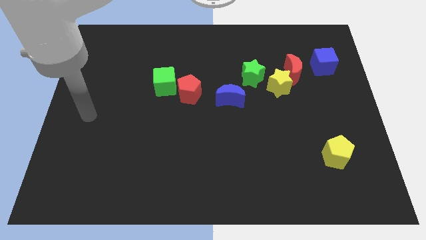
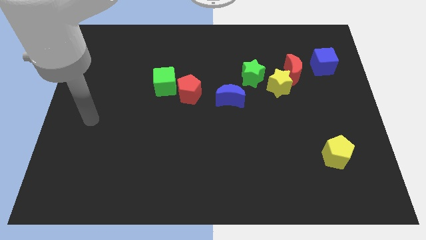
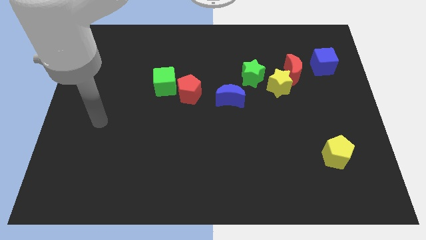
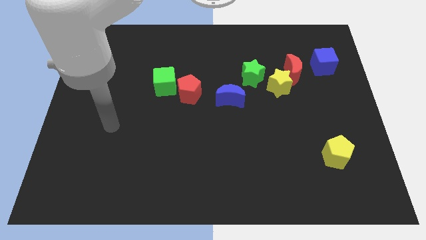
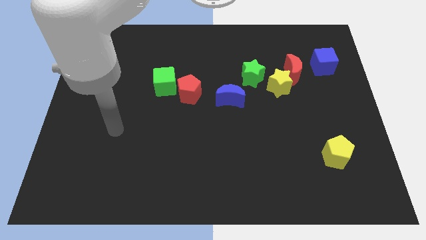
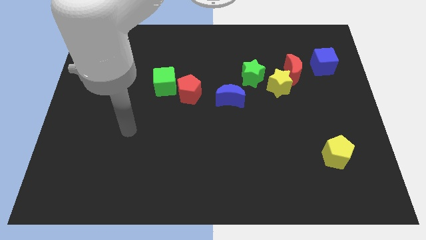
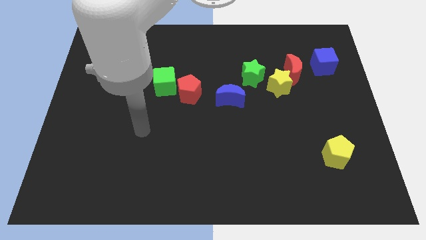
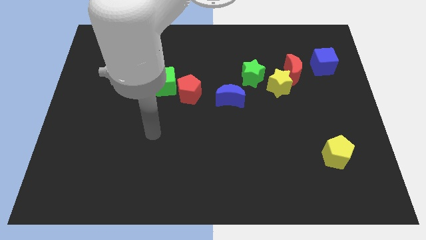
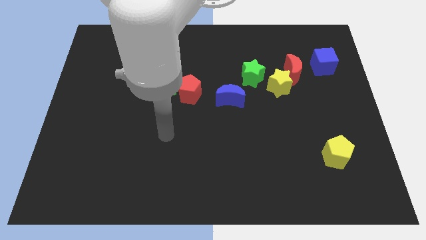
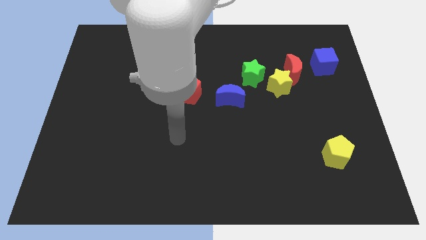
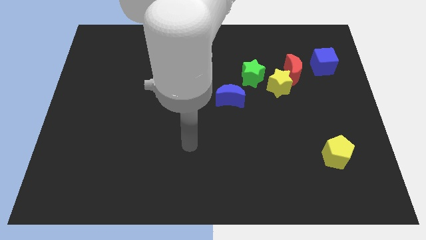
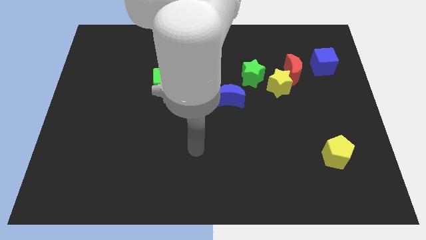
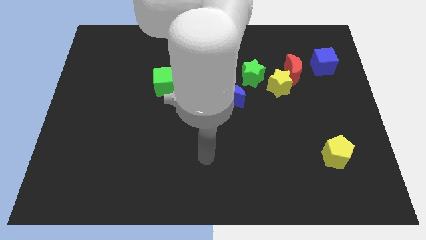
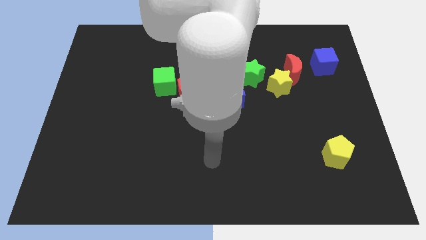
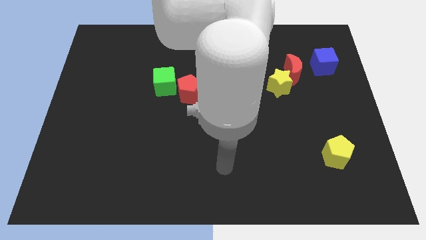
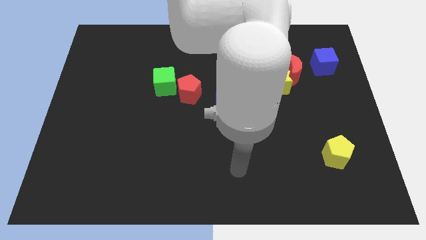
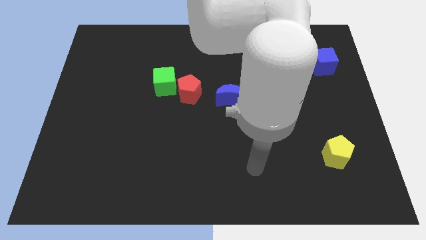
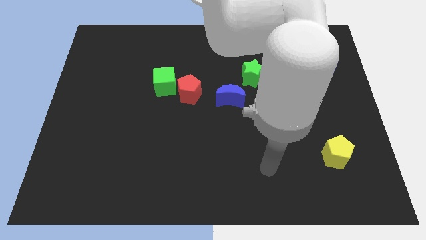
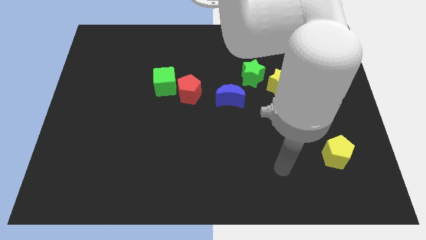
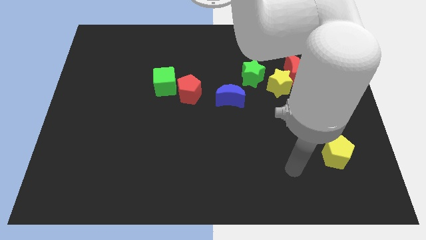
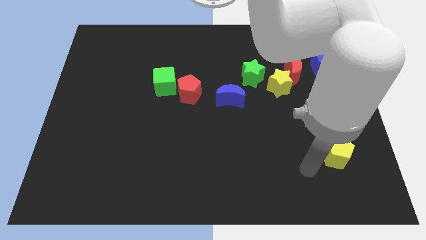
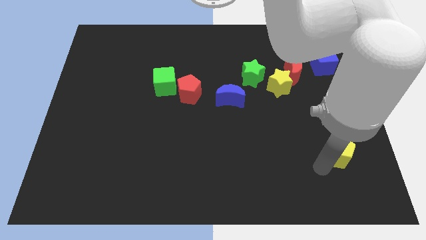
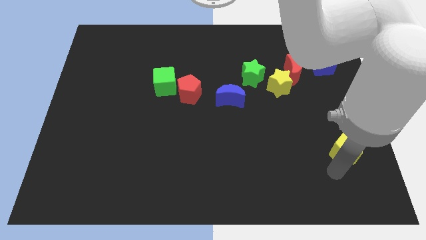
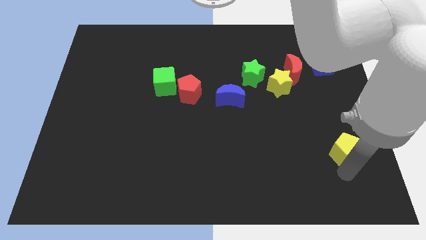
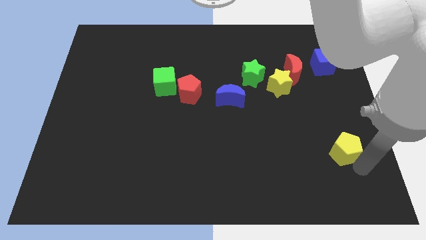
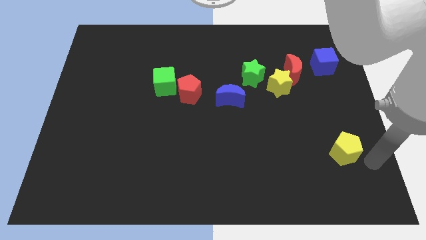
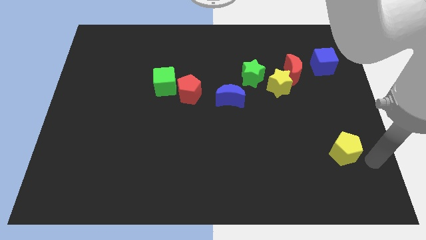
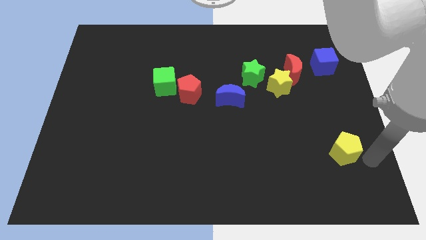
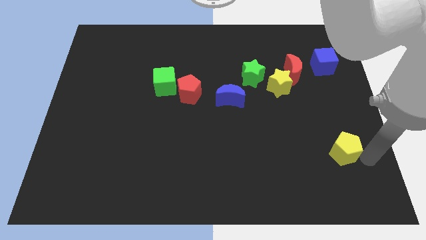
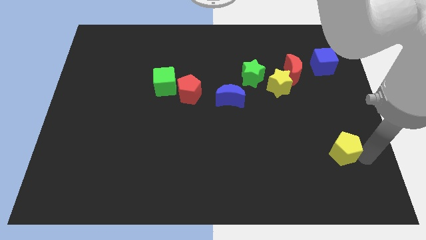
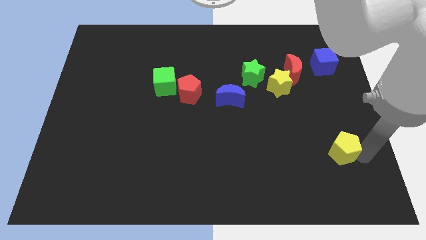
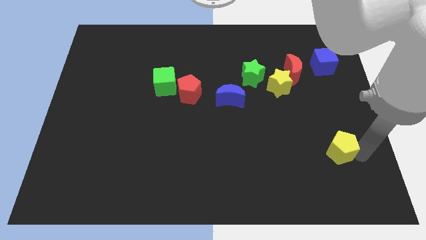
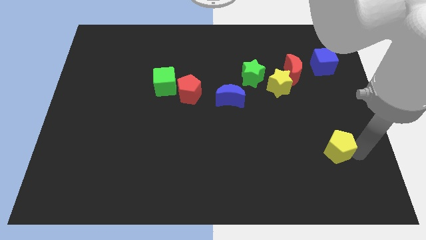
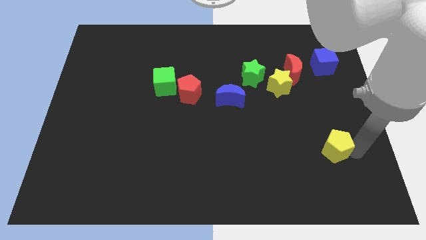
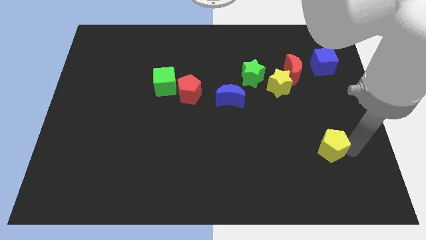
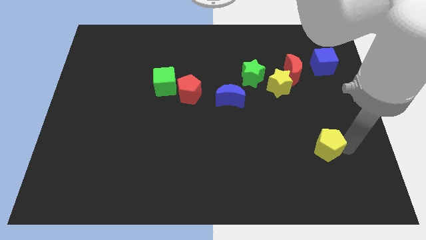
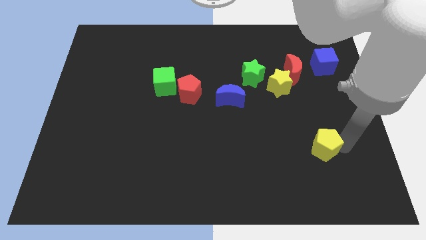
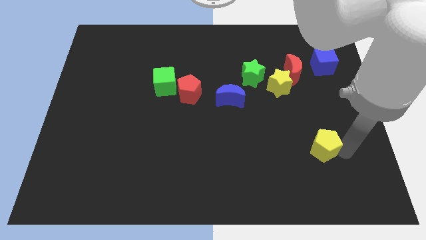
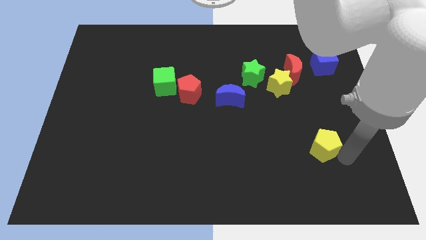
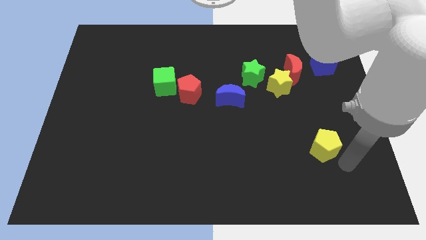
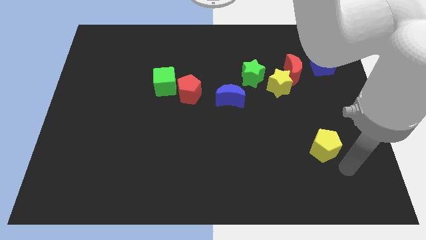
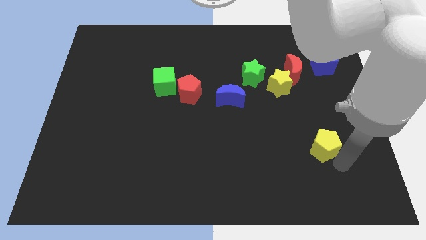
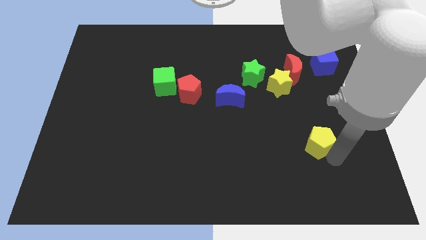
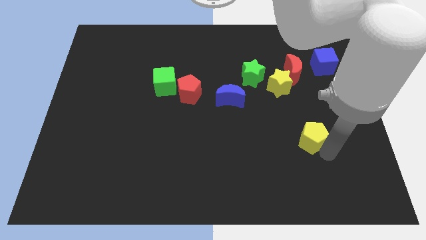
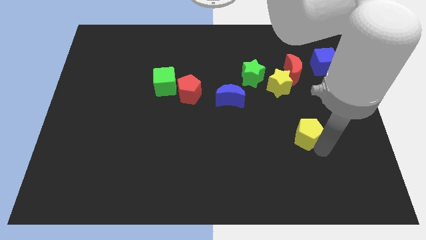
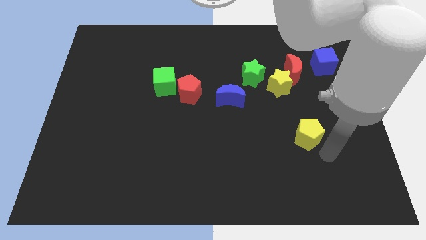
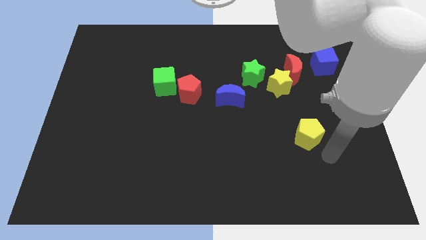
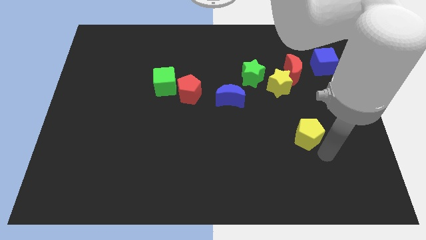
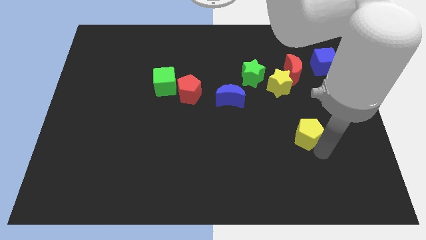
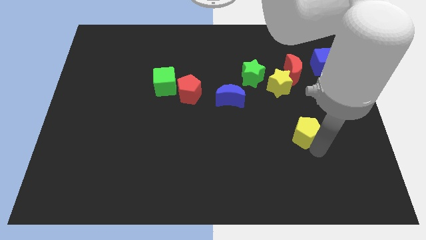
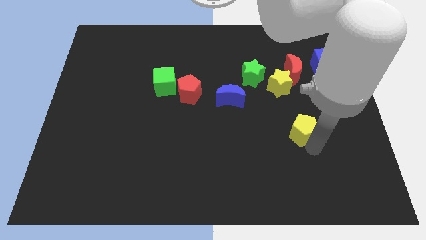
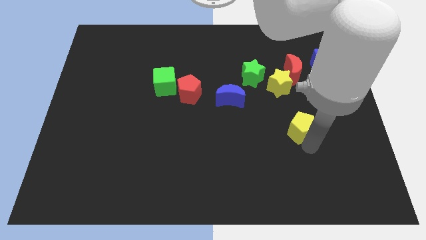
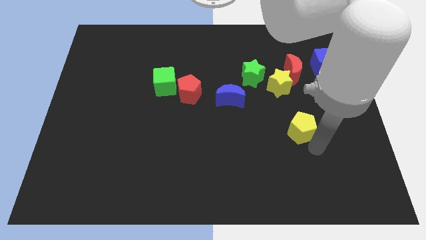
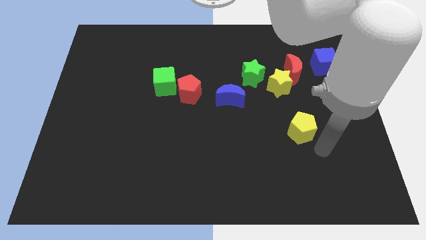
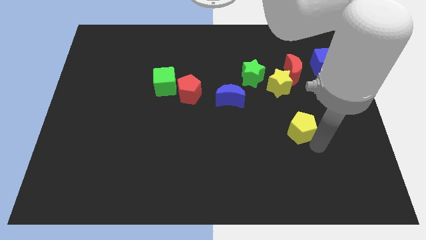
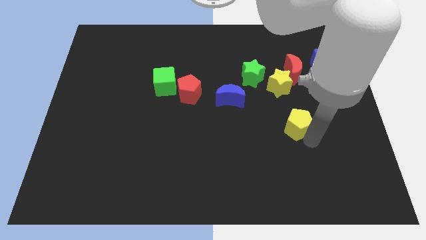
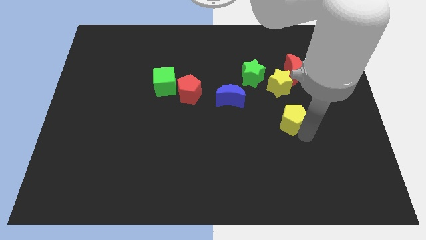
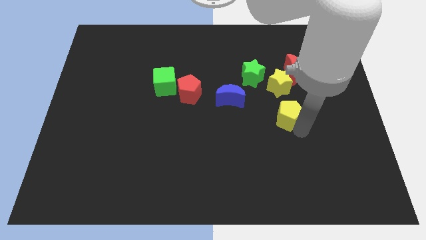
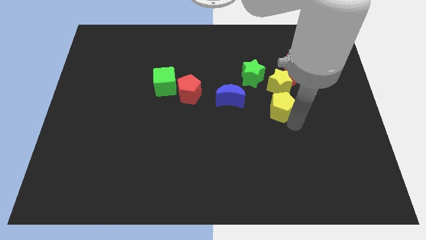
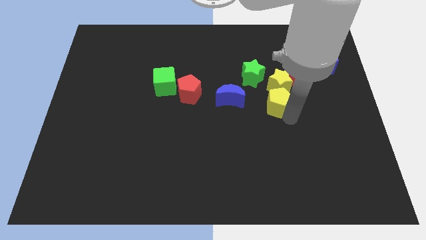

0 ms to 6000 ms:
move the yellow pentagon diagonally down and to the left of the yellow star
